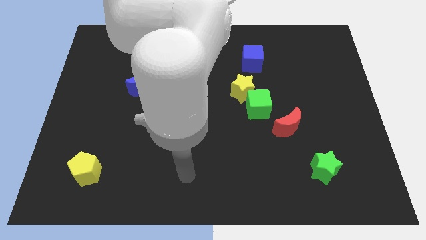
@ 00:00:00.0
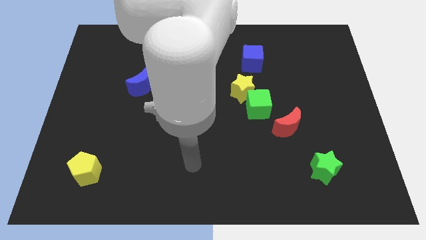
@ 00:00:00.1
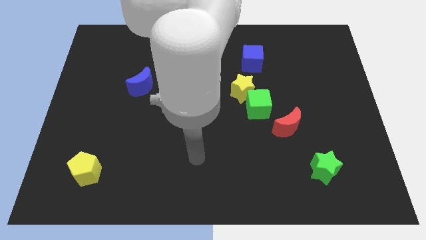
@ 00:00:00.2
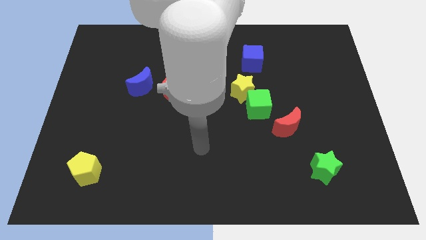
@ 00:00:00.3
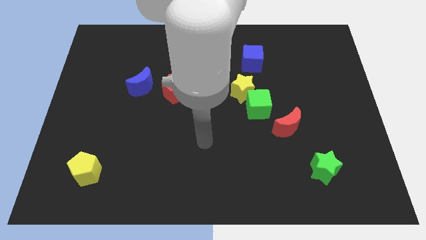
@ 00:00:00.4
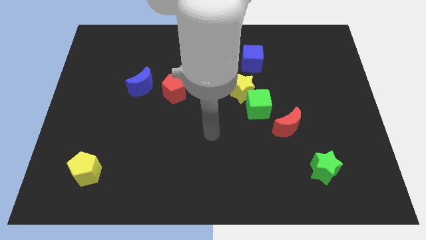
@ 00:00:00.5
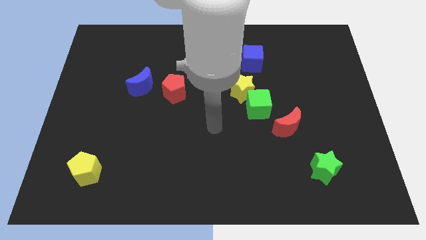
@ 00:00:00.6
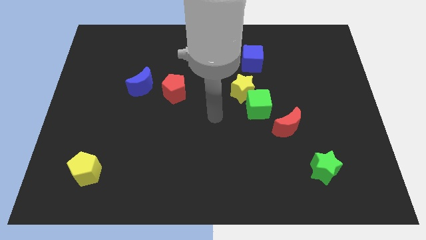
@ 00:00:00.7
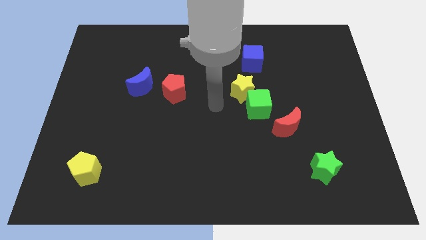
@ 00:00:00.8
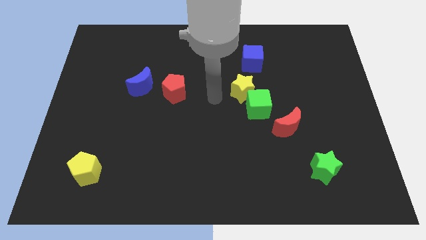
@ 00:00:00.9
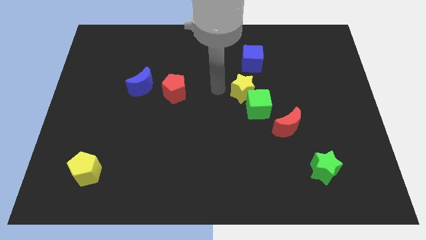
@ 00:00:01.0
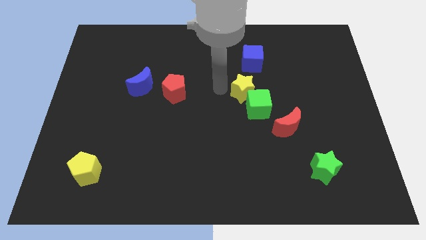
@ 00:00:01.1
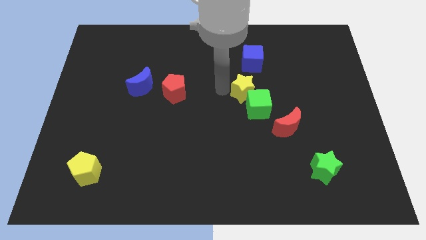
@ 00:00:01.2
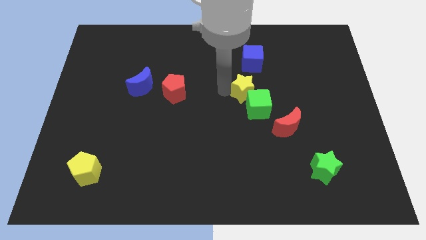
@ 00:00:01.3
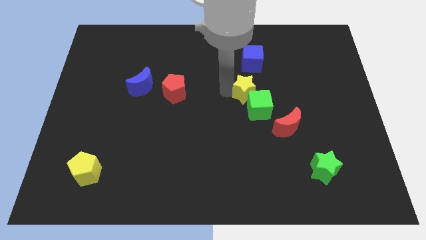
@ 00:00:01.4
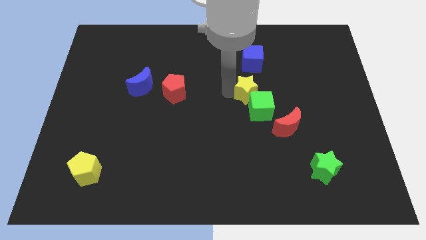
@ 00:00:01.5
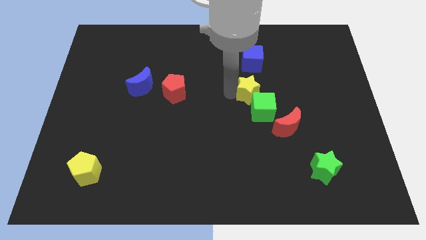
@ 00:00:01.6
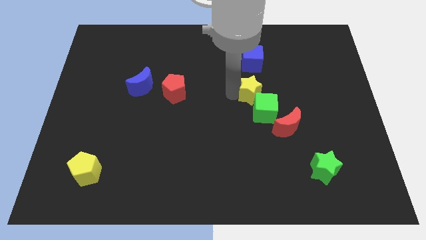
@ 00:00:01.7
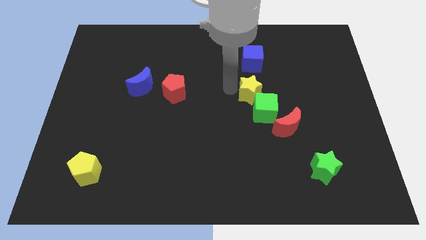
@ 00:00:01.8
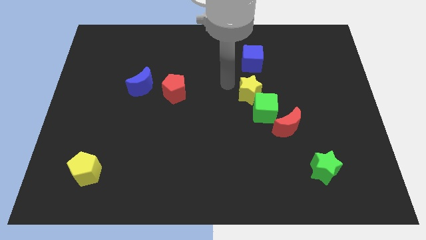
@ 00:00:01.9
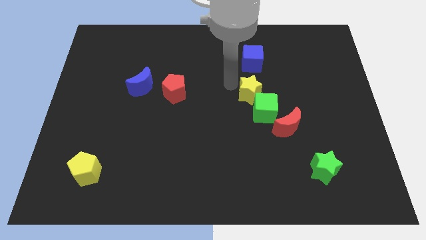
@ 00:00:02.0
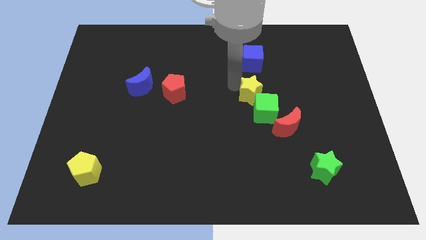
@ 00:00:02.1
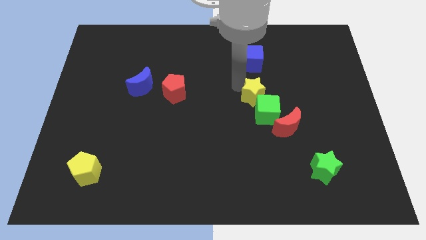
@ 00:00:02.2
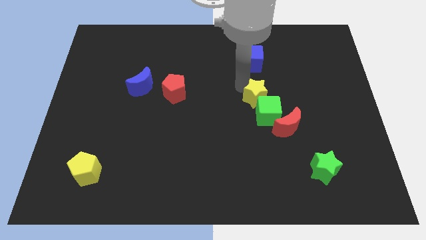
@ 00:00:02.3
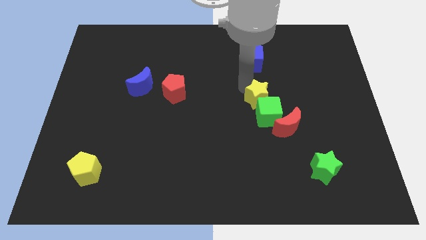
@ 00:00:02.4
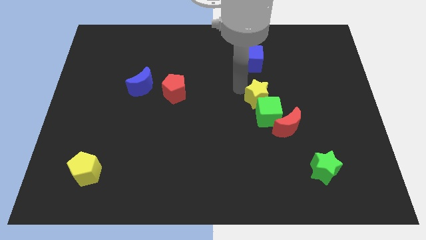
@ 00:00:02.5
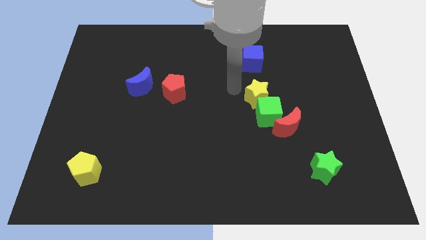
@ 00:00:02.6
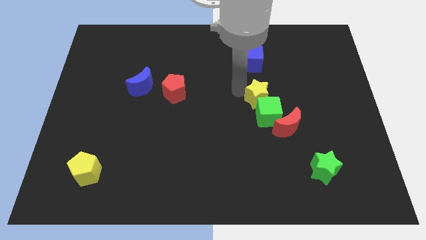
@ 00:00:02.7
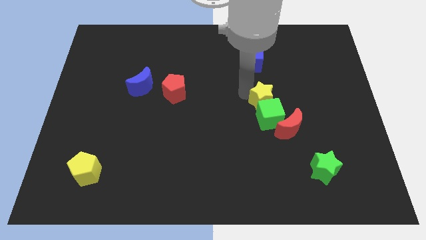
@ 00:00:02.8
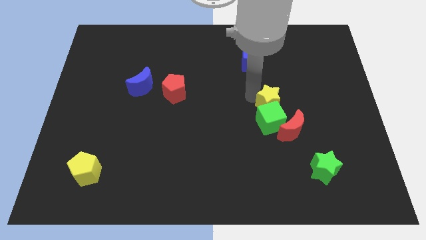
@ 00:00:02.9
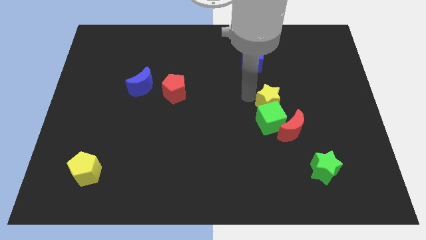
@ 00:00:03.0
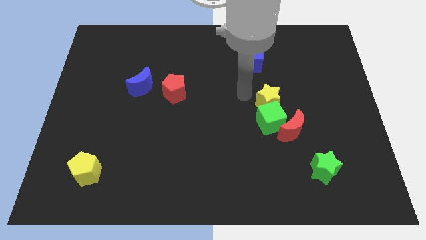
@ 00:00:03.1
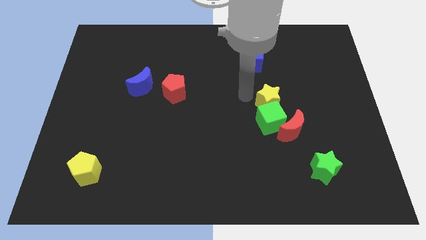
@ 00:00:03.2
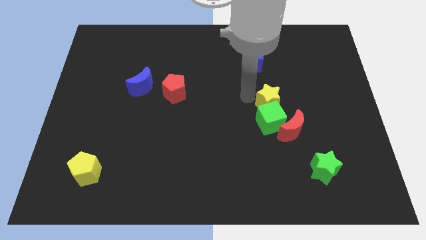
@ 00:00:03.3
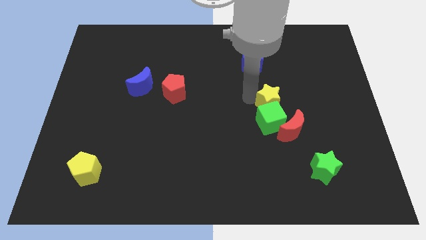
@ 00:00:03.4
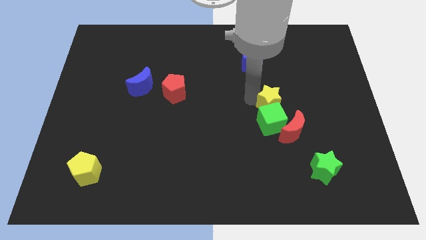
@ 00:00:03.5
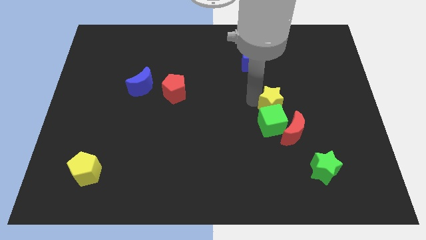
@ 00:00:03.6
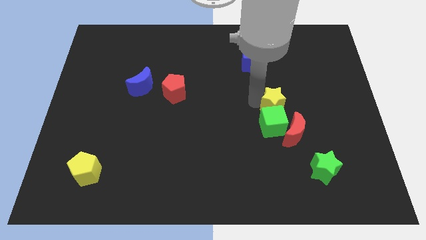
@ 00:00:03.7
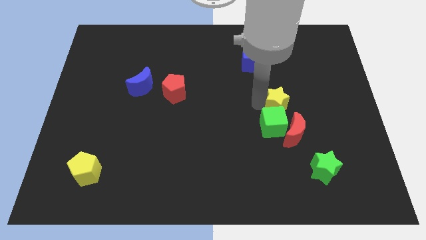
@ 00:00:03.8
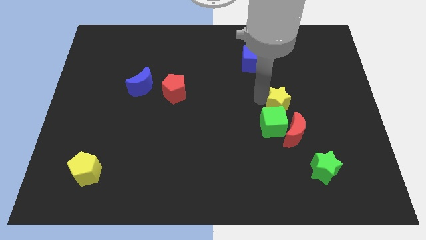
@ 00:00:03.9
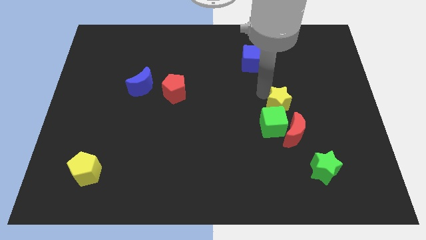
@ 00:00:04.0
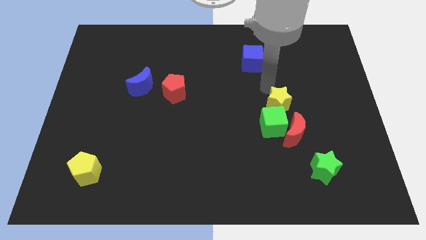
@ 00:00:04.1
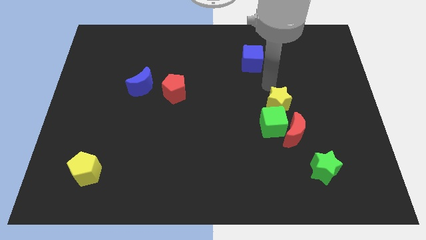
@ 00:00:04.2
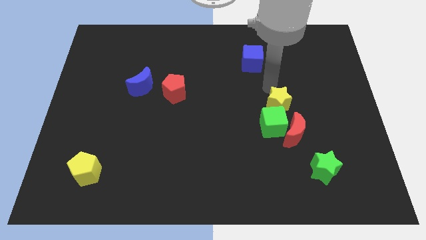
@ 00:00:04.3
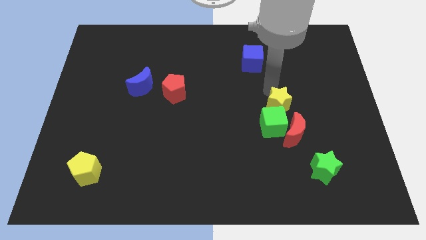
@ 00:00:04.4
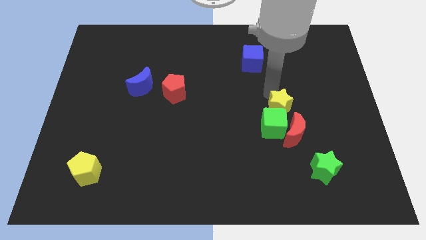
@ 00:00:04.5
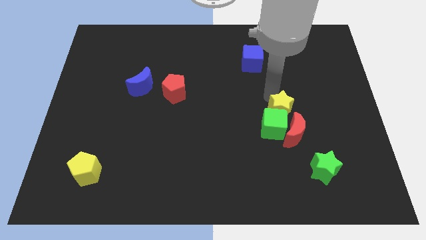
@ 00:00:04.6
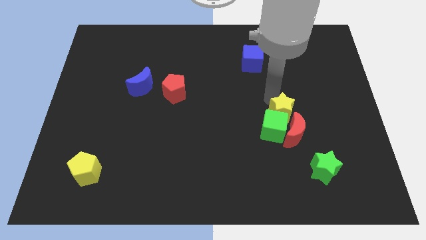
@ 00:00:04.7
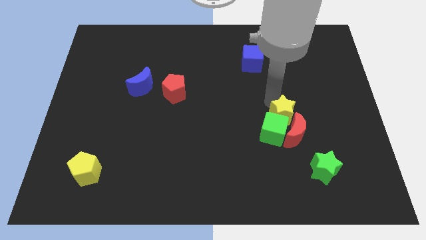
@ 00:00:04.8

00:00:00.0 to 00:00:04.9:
put the yellow star towards the red moon

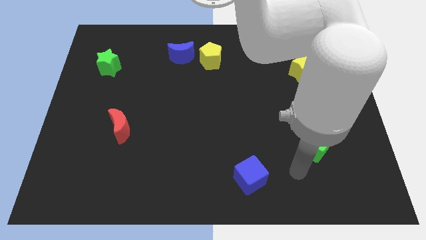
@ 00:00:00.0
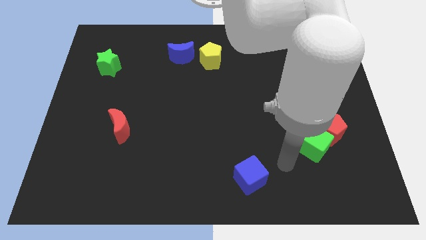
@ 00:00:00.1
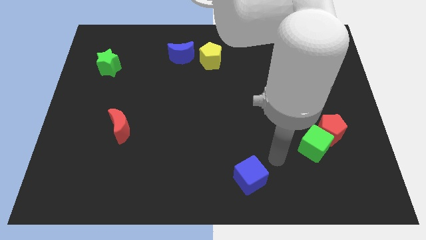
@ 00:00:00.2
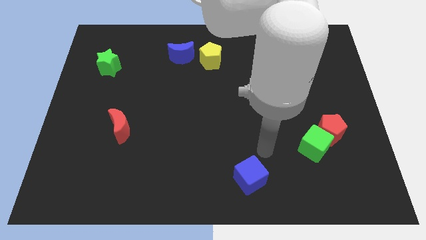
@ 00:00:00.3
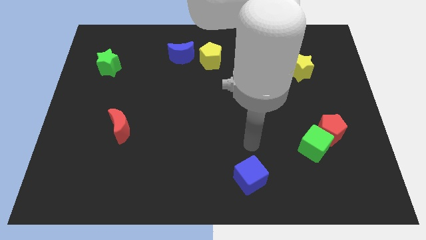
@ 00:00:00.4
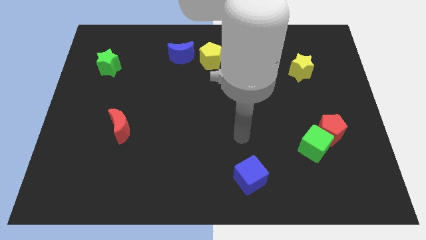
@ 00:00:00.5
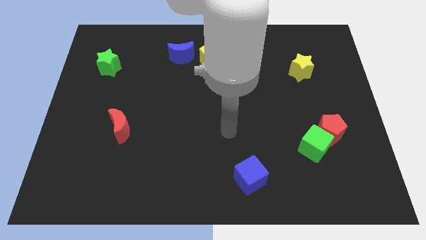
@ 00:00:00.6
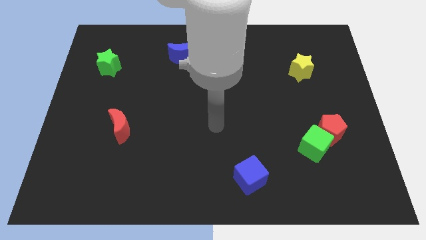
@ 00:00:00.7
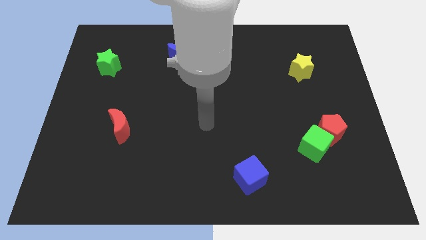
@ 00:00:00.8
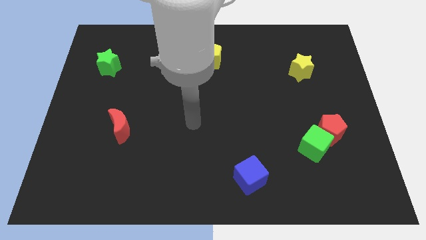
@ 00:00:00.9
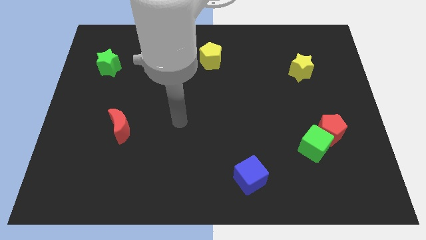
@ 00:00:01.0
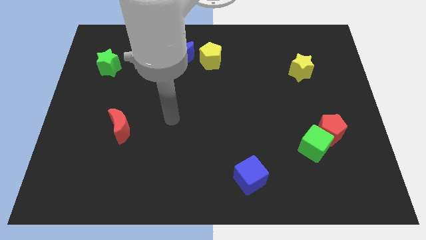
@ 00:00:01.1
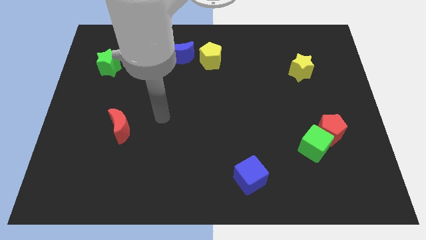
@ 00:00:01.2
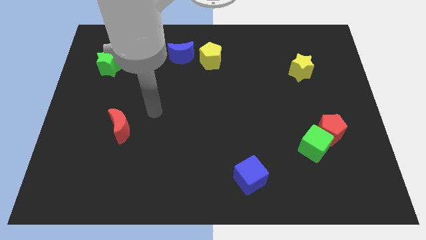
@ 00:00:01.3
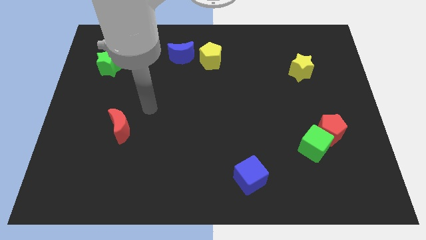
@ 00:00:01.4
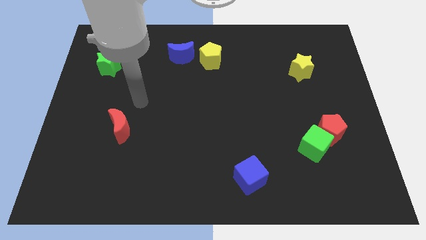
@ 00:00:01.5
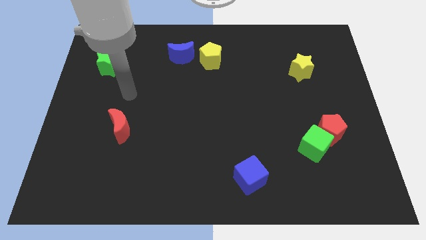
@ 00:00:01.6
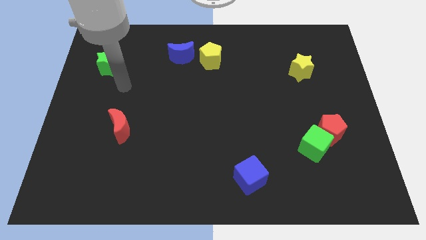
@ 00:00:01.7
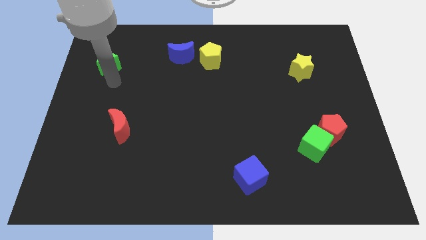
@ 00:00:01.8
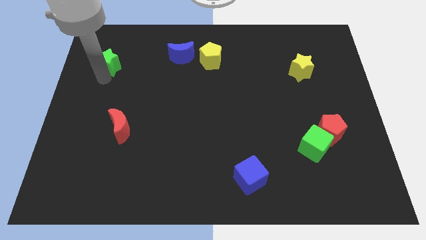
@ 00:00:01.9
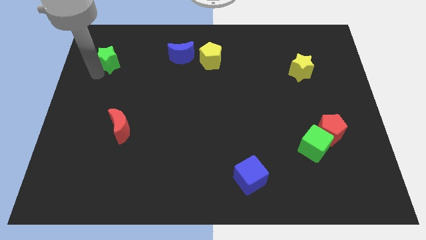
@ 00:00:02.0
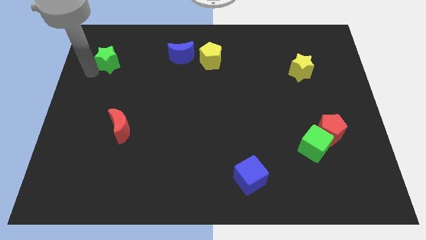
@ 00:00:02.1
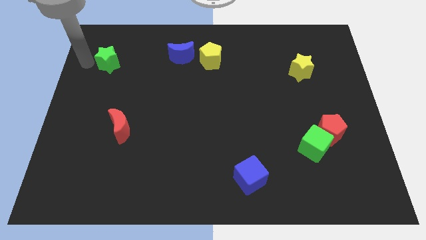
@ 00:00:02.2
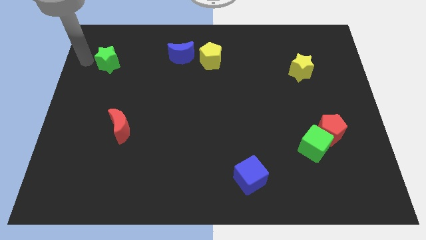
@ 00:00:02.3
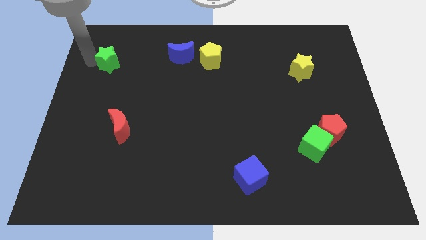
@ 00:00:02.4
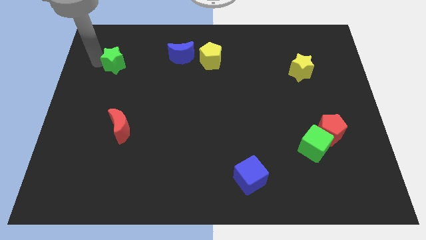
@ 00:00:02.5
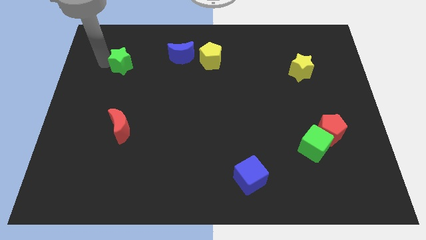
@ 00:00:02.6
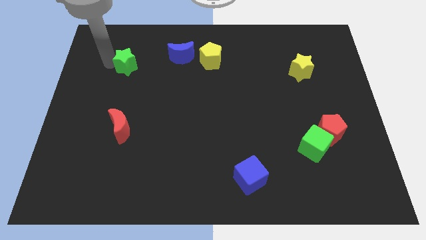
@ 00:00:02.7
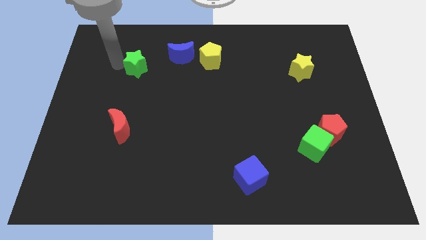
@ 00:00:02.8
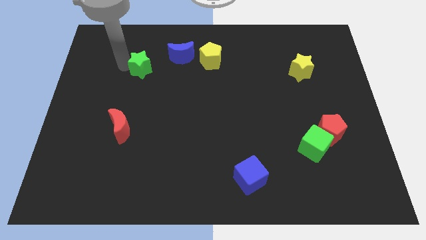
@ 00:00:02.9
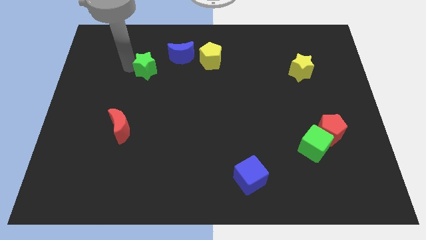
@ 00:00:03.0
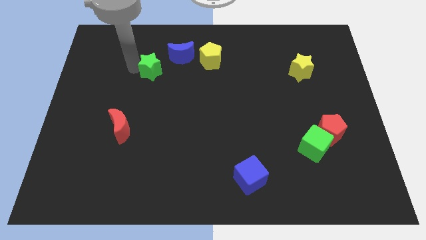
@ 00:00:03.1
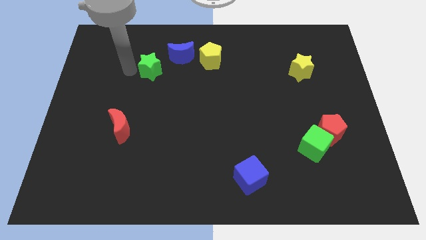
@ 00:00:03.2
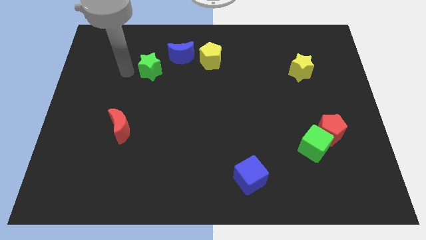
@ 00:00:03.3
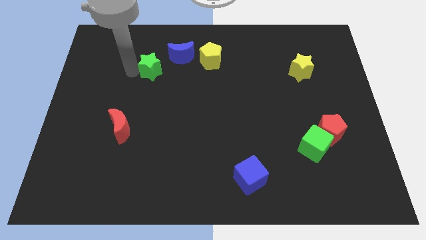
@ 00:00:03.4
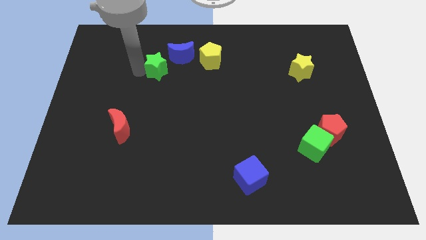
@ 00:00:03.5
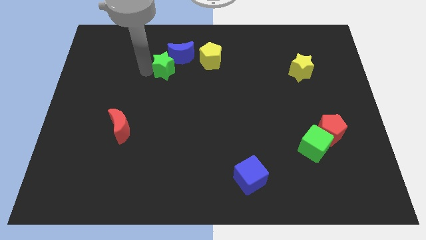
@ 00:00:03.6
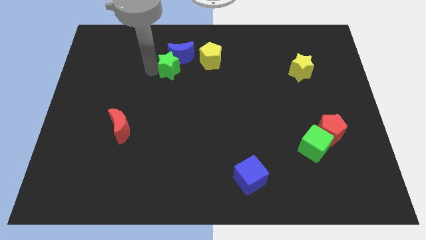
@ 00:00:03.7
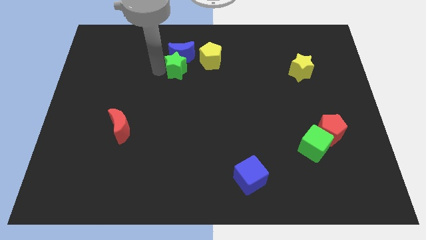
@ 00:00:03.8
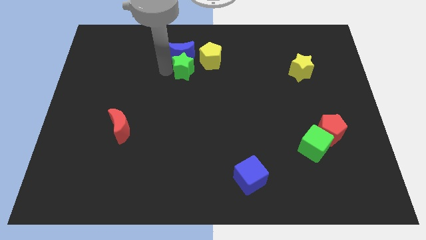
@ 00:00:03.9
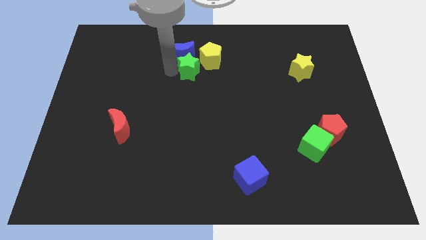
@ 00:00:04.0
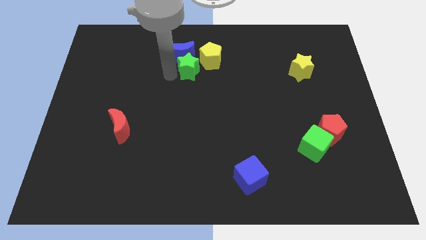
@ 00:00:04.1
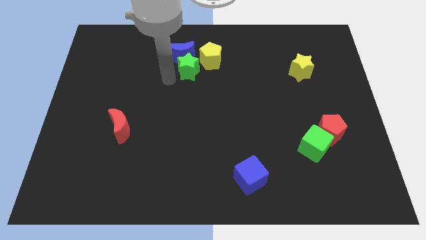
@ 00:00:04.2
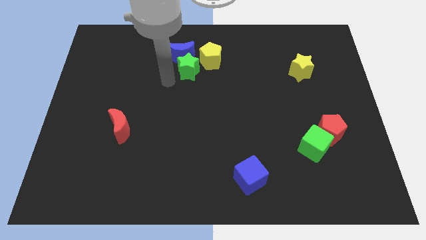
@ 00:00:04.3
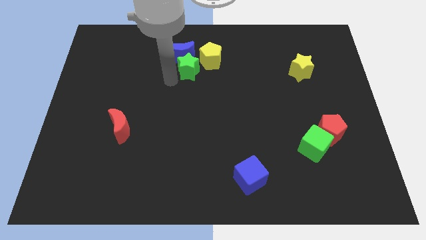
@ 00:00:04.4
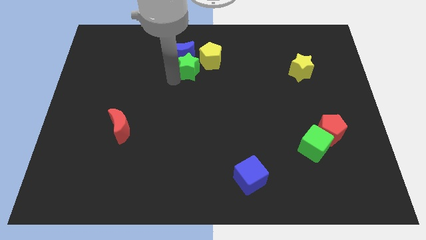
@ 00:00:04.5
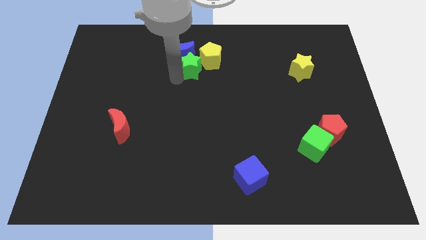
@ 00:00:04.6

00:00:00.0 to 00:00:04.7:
push the green star towards the yellow pentagon
